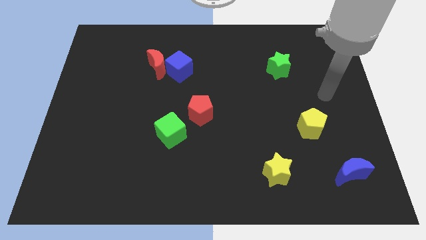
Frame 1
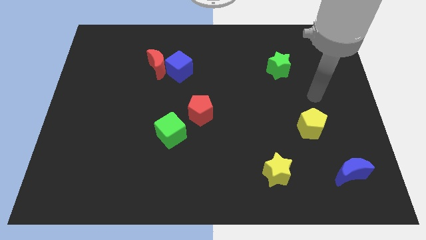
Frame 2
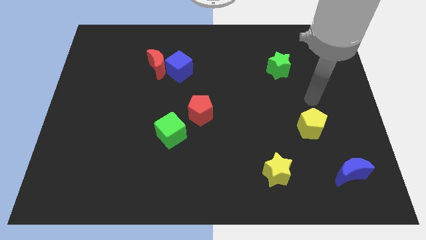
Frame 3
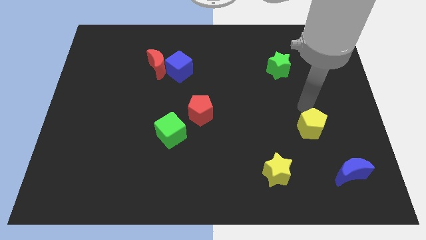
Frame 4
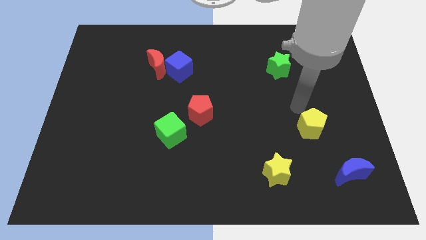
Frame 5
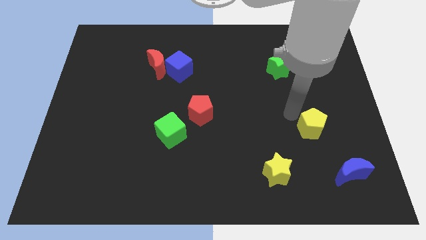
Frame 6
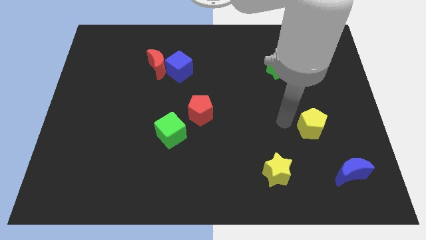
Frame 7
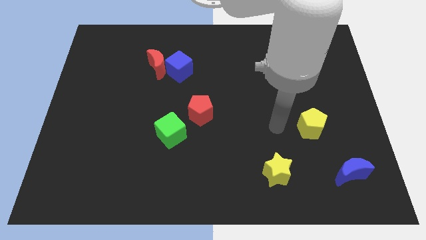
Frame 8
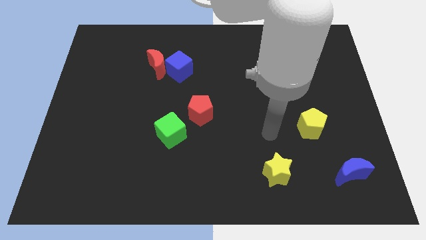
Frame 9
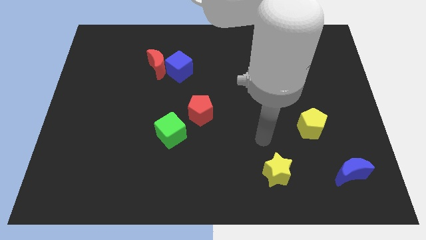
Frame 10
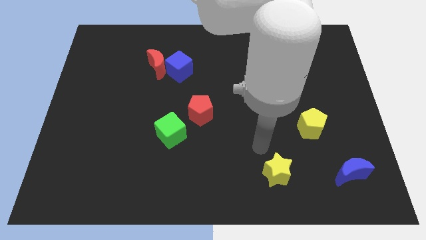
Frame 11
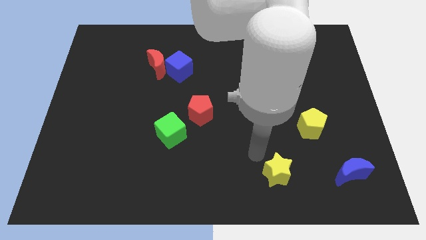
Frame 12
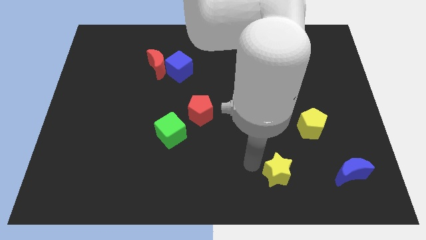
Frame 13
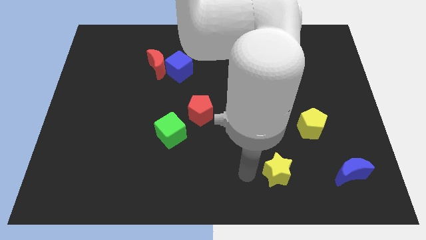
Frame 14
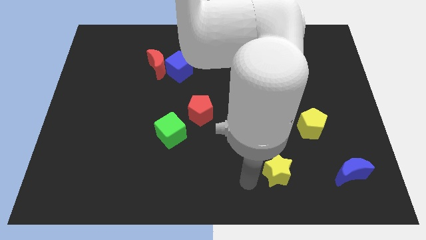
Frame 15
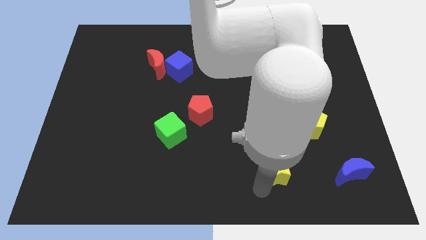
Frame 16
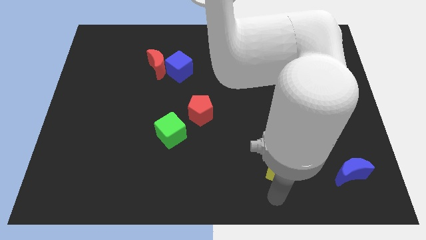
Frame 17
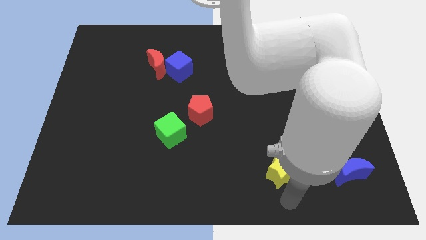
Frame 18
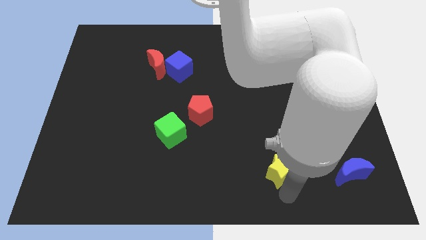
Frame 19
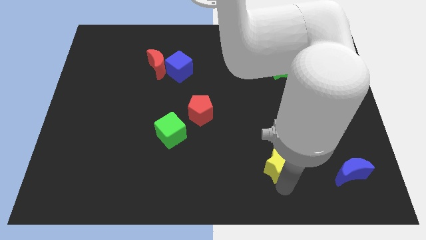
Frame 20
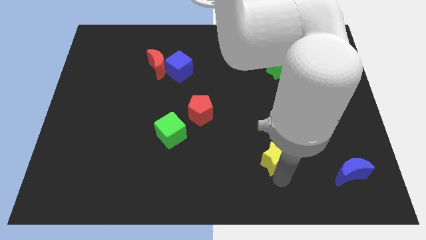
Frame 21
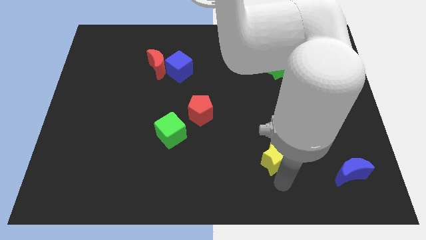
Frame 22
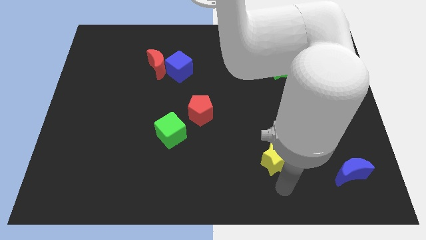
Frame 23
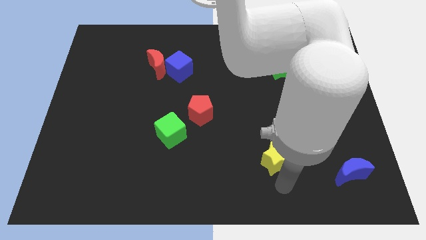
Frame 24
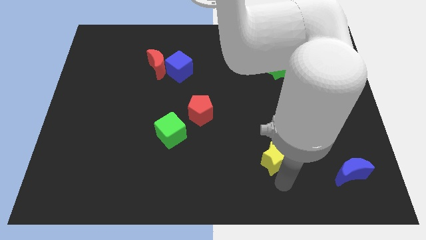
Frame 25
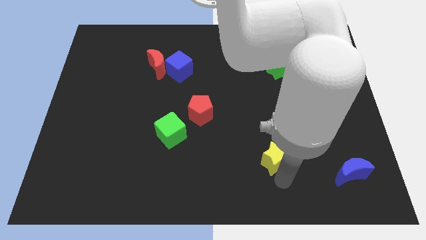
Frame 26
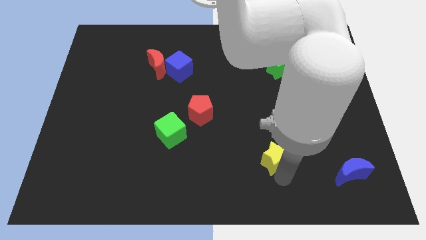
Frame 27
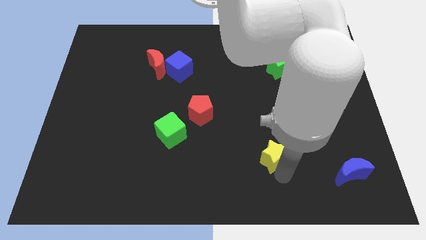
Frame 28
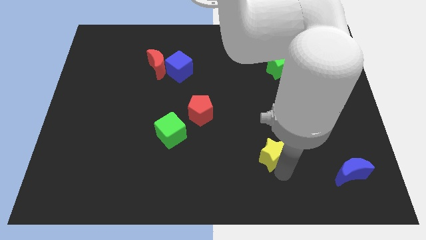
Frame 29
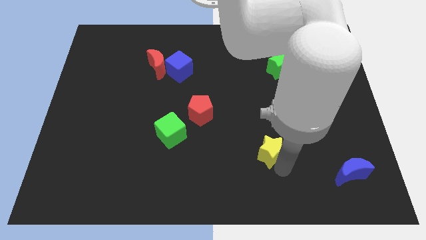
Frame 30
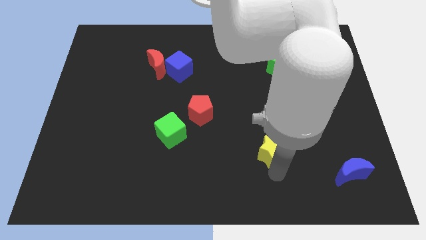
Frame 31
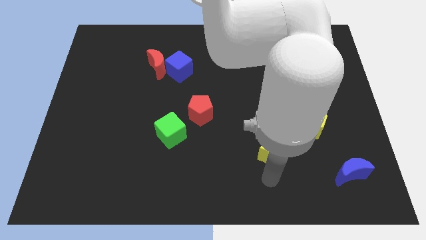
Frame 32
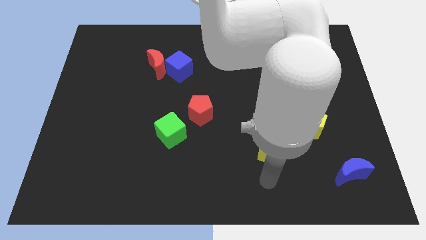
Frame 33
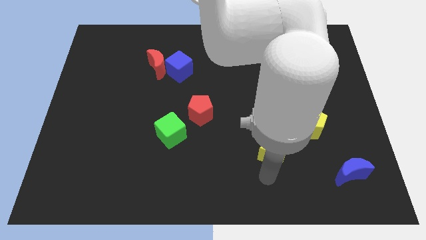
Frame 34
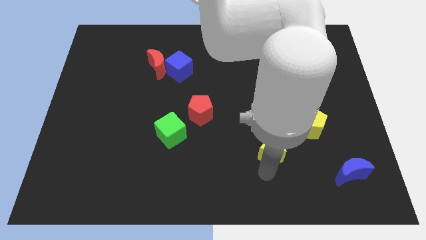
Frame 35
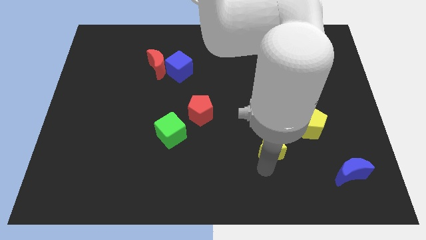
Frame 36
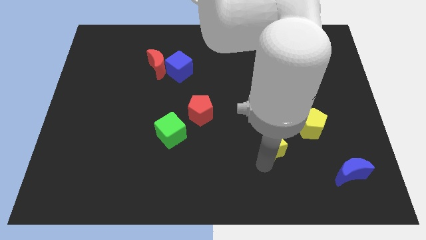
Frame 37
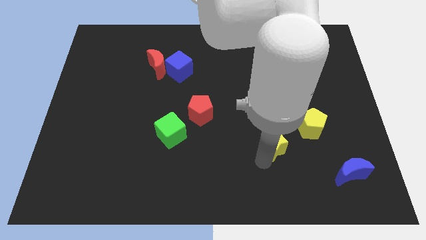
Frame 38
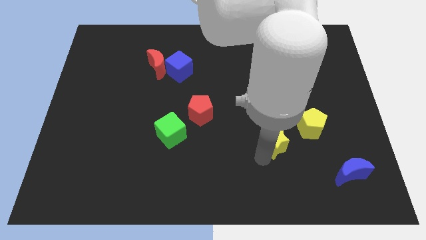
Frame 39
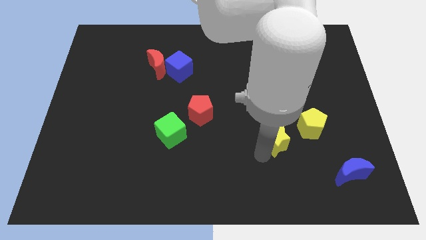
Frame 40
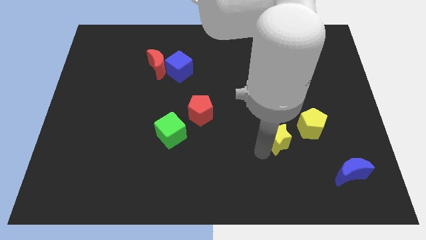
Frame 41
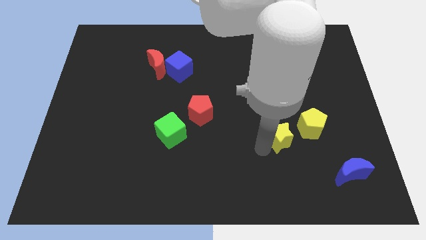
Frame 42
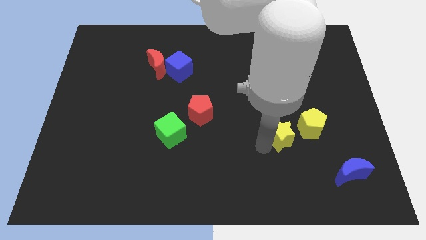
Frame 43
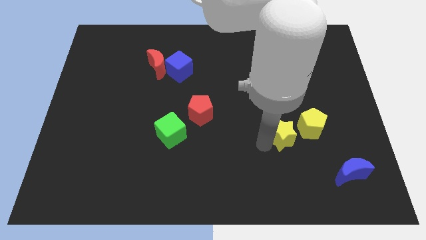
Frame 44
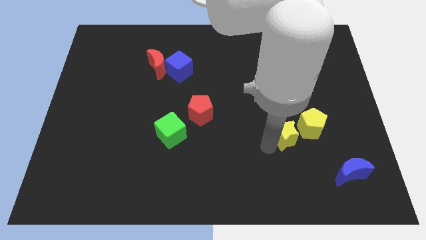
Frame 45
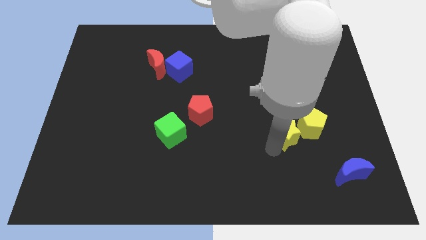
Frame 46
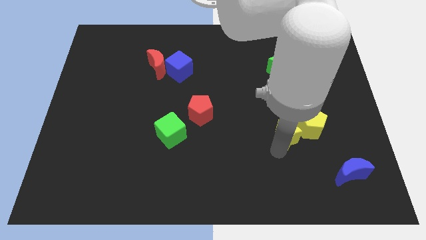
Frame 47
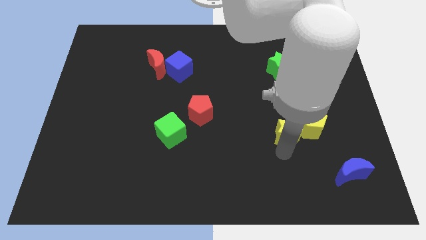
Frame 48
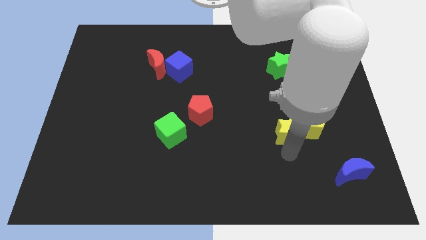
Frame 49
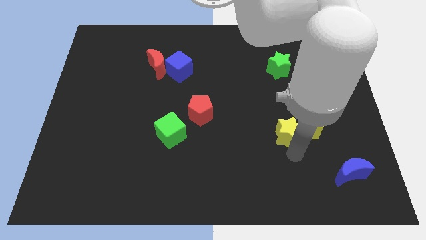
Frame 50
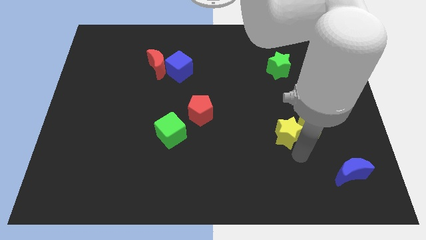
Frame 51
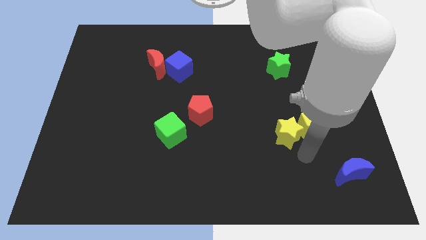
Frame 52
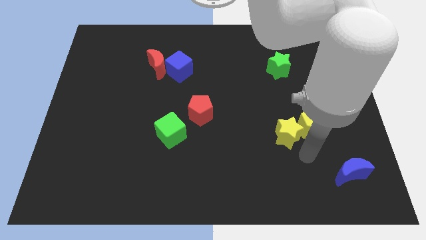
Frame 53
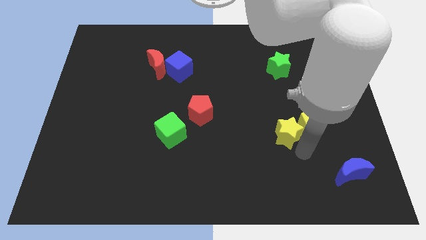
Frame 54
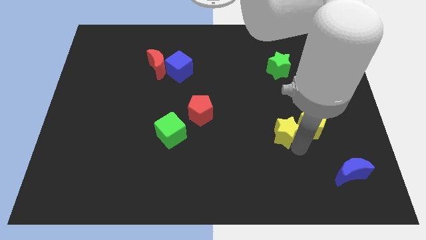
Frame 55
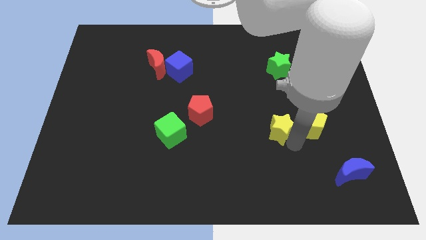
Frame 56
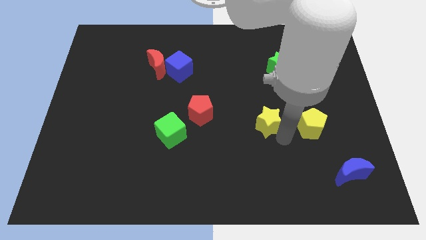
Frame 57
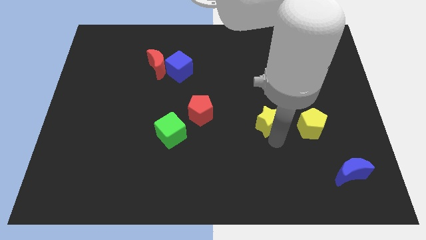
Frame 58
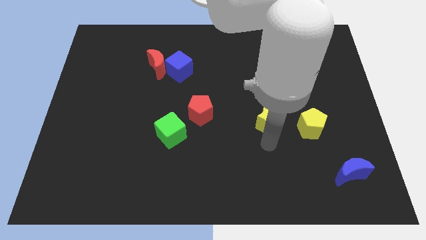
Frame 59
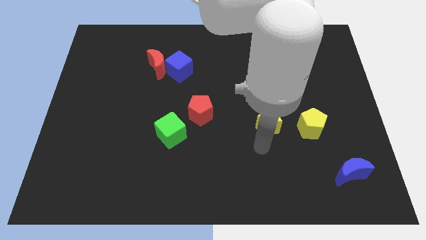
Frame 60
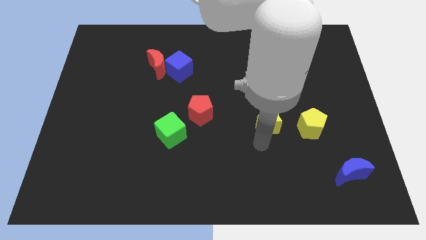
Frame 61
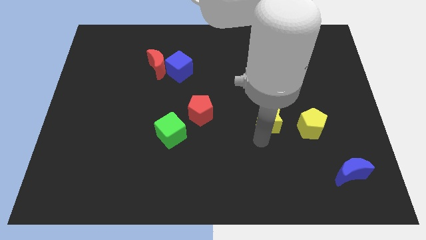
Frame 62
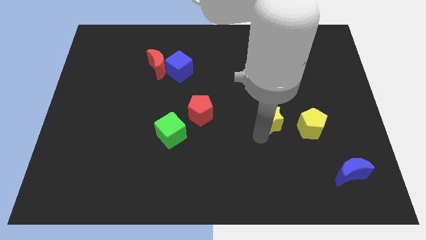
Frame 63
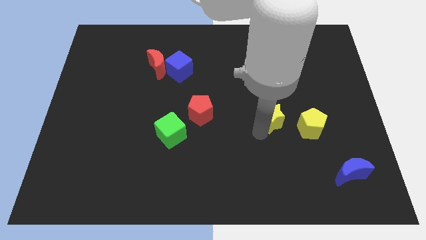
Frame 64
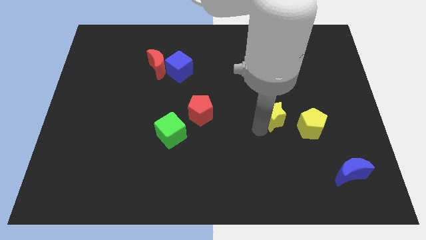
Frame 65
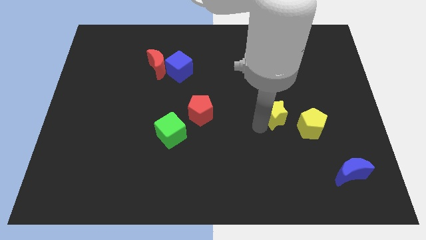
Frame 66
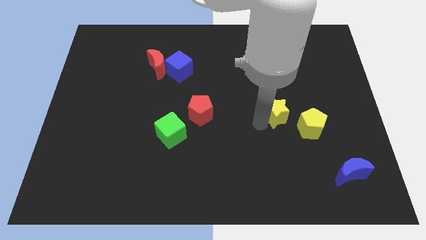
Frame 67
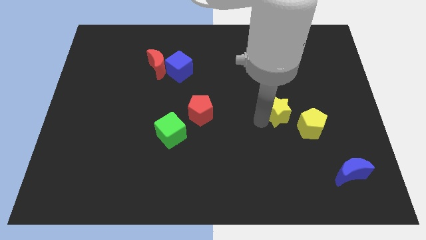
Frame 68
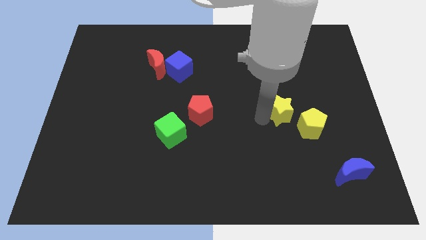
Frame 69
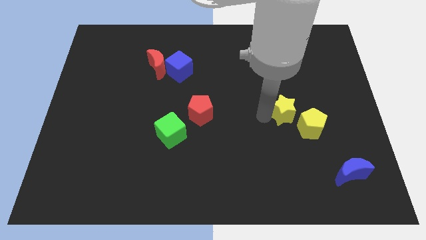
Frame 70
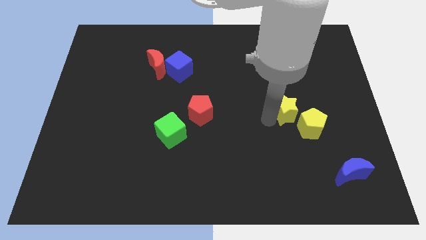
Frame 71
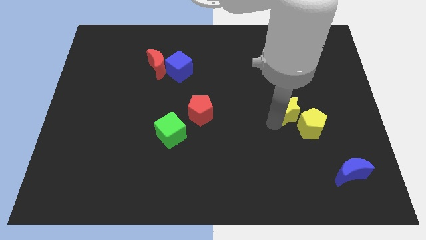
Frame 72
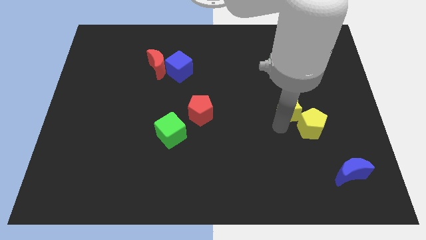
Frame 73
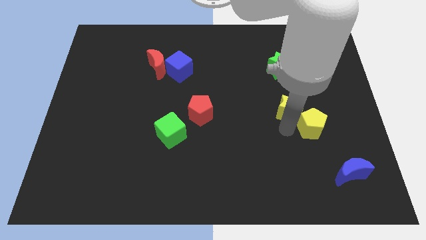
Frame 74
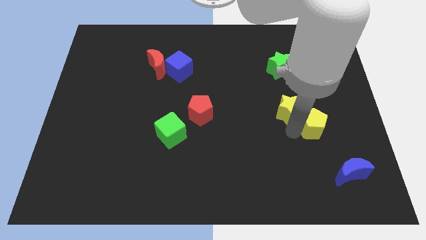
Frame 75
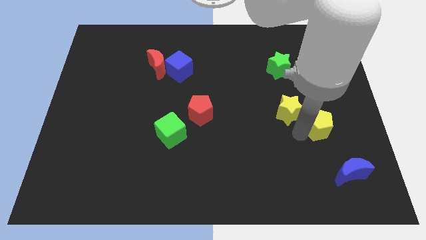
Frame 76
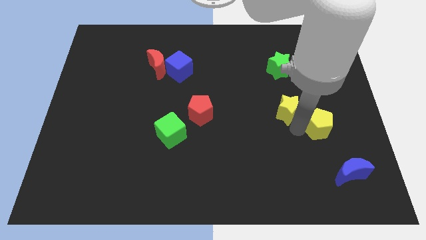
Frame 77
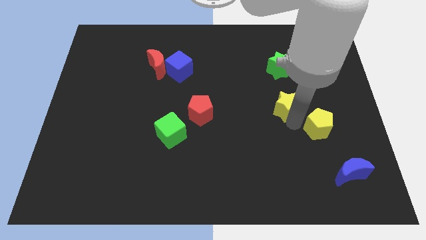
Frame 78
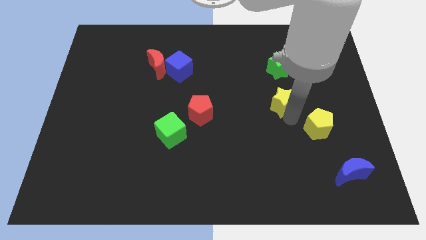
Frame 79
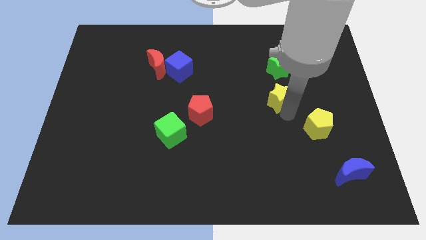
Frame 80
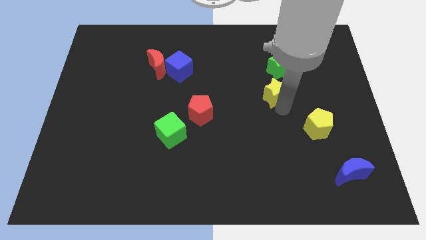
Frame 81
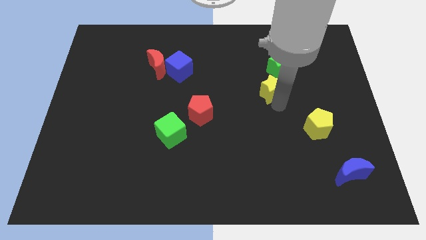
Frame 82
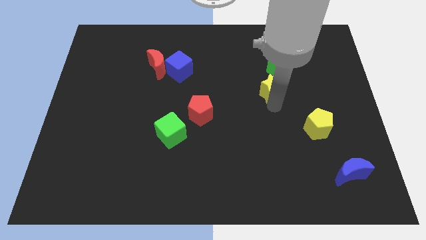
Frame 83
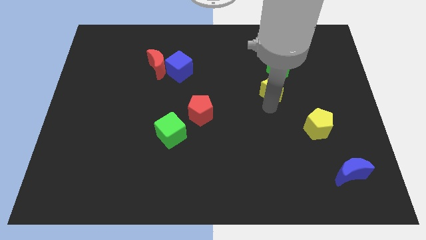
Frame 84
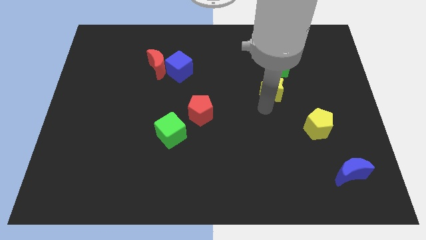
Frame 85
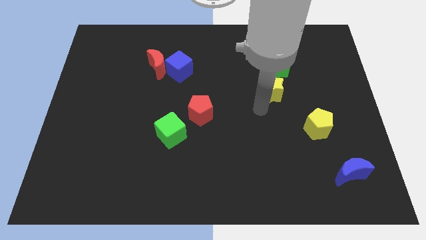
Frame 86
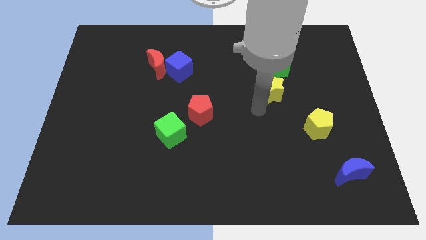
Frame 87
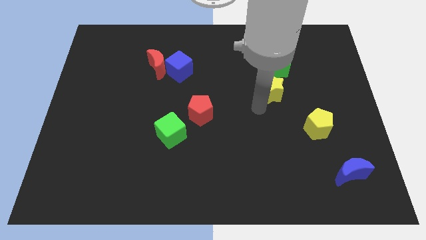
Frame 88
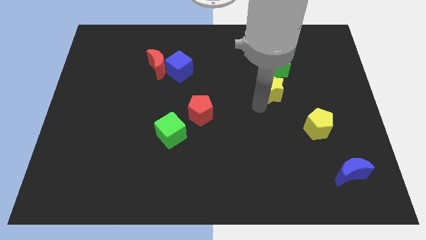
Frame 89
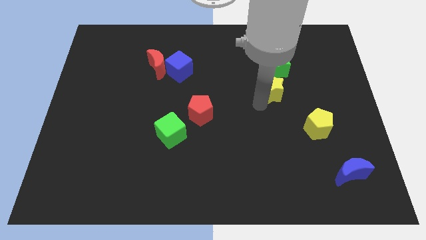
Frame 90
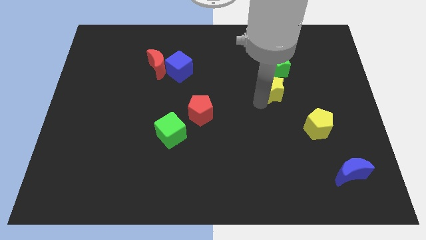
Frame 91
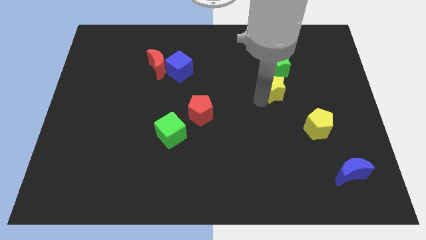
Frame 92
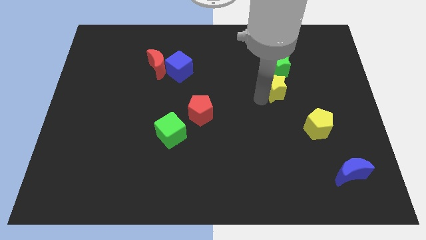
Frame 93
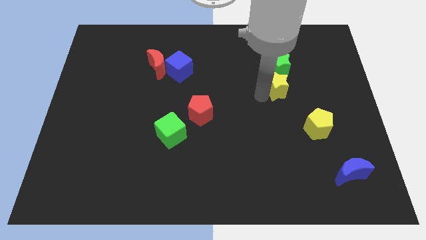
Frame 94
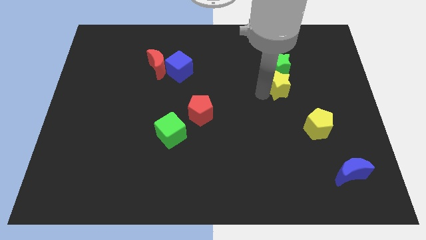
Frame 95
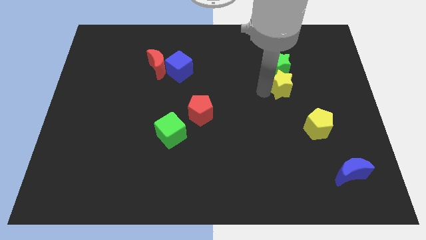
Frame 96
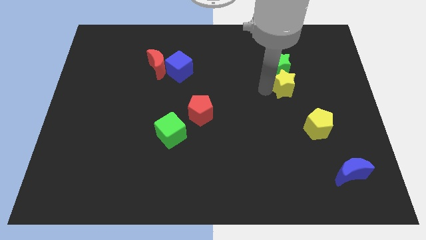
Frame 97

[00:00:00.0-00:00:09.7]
move the yellow star to the green star
